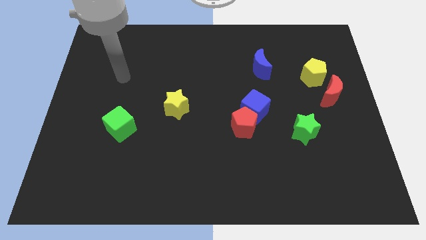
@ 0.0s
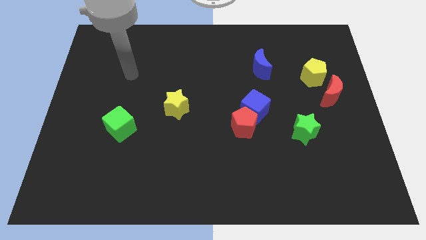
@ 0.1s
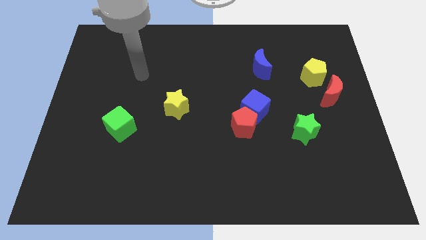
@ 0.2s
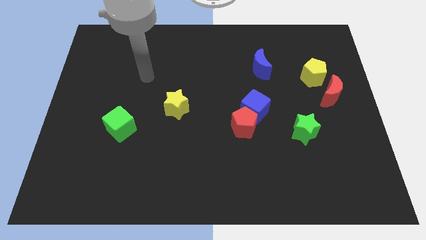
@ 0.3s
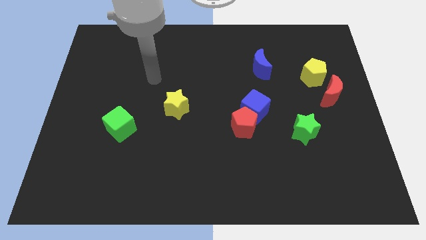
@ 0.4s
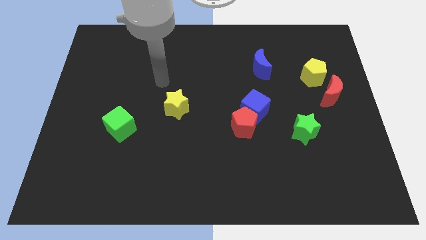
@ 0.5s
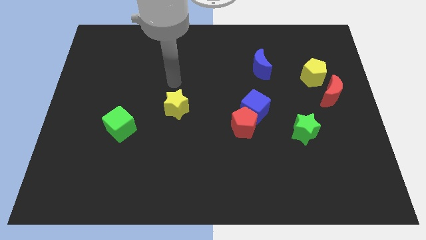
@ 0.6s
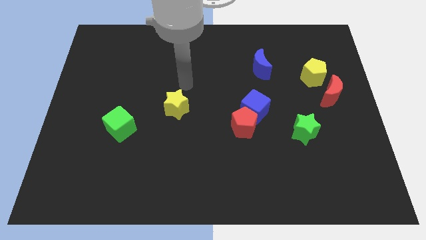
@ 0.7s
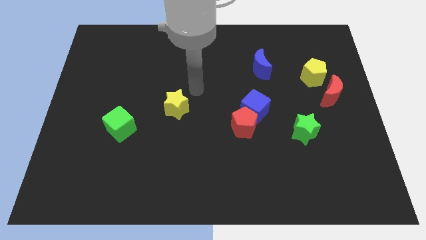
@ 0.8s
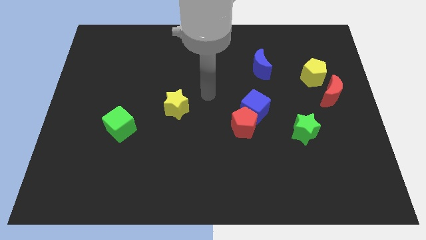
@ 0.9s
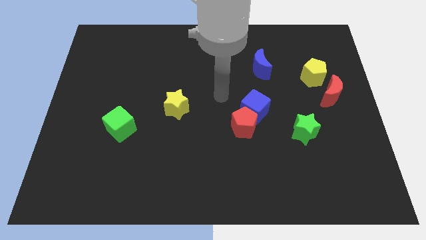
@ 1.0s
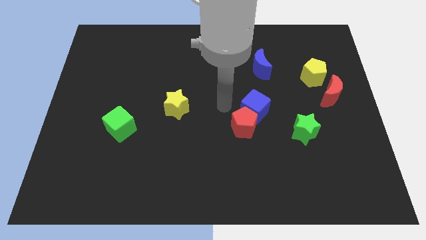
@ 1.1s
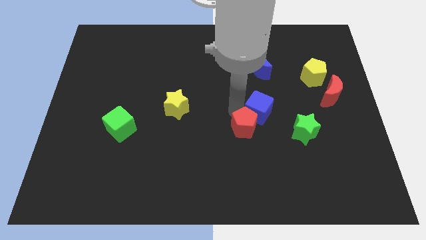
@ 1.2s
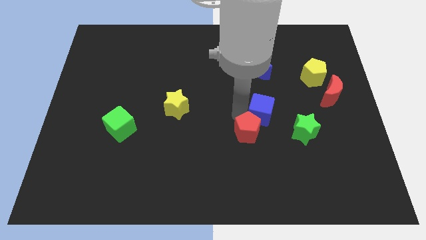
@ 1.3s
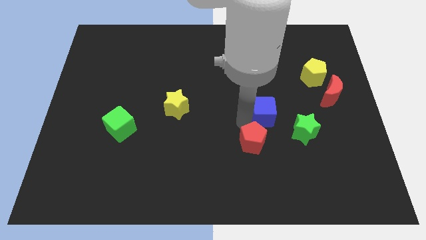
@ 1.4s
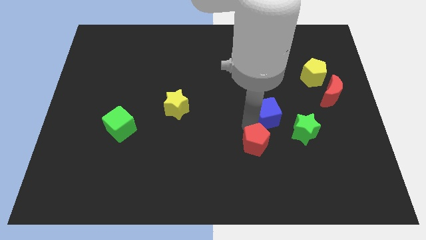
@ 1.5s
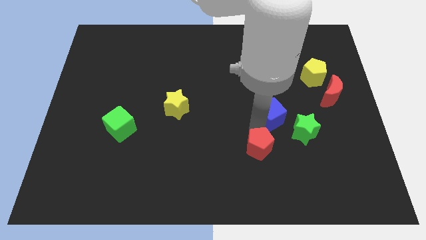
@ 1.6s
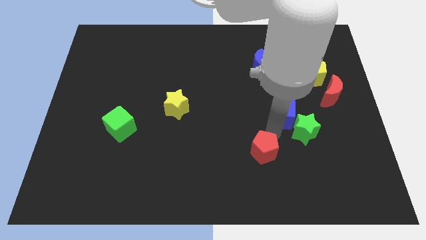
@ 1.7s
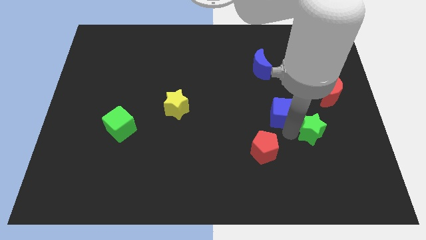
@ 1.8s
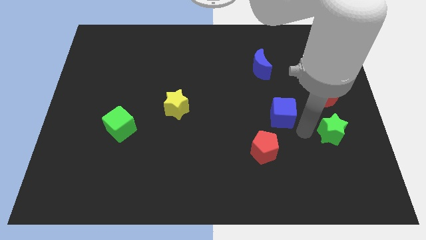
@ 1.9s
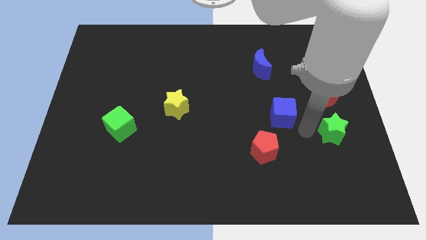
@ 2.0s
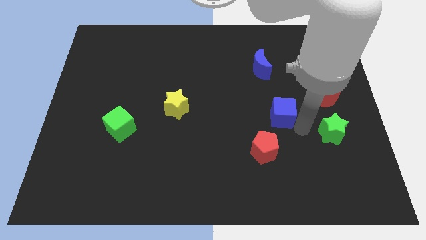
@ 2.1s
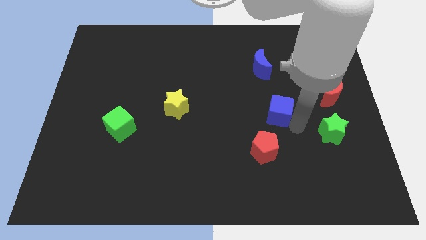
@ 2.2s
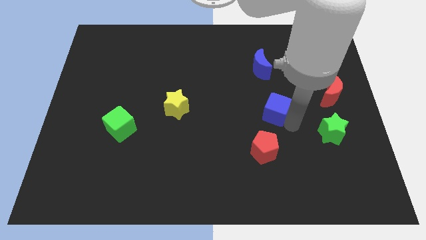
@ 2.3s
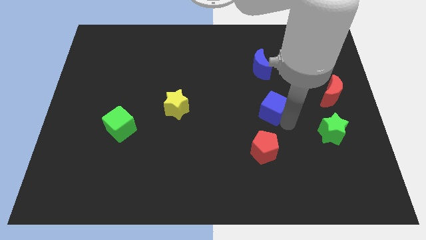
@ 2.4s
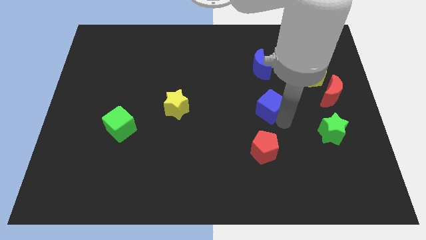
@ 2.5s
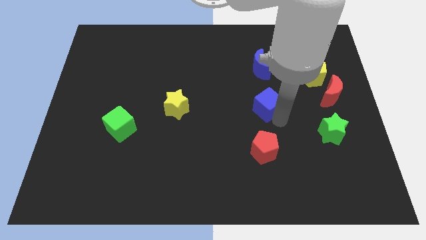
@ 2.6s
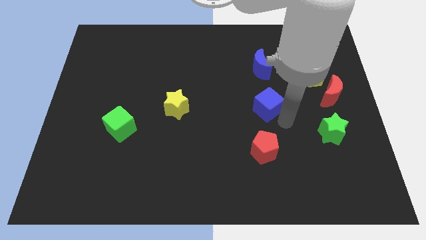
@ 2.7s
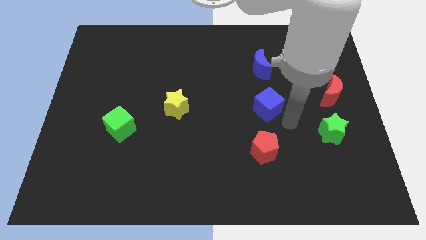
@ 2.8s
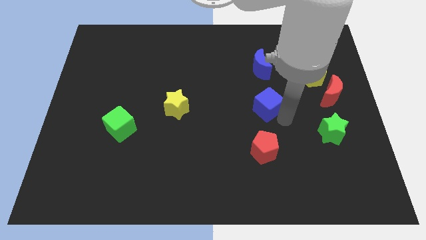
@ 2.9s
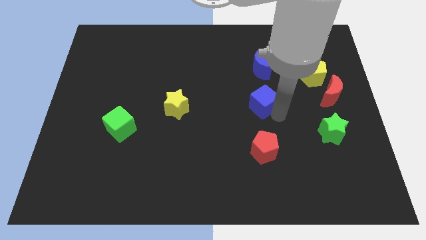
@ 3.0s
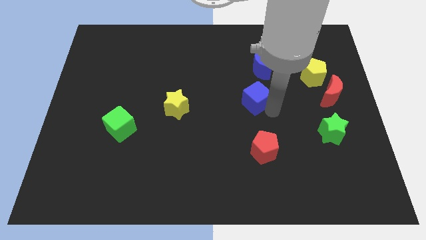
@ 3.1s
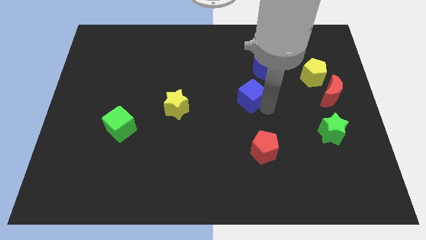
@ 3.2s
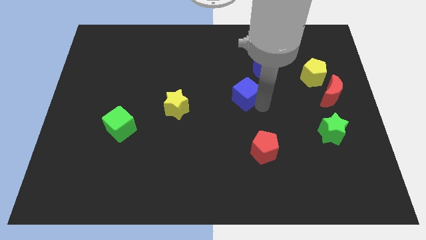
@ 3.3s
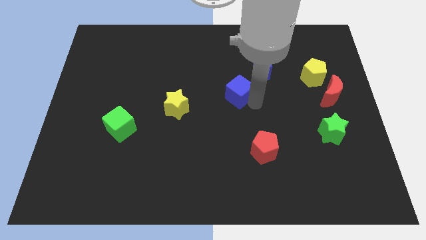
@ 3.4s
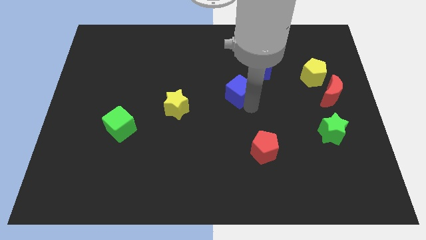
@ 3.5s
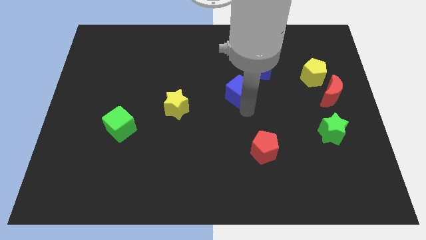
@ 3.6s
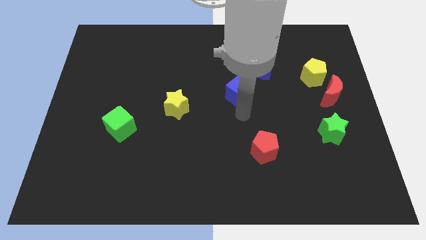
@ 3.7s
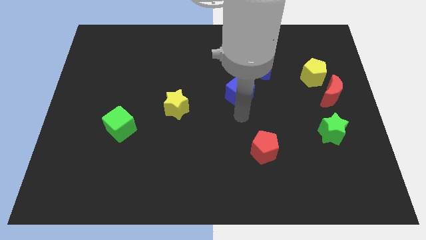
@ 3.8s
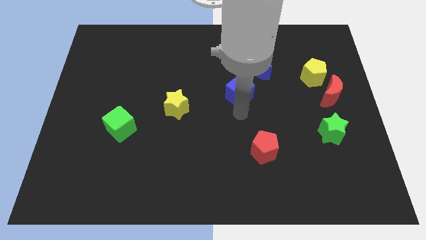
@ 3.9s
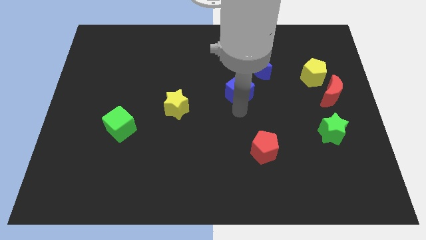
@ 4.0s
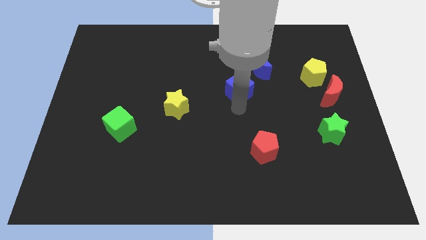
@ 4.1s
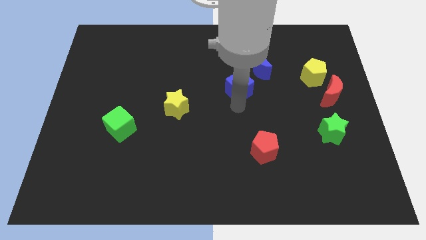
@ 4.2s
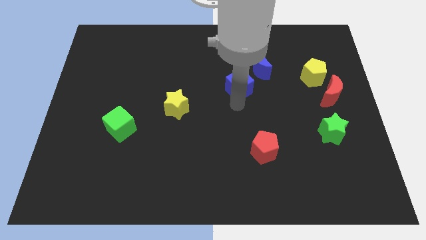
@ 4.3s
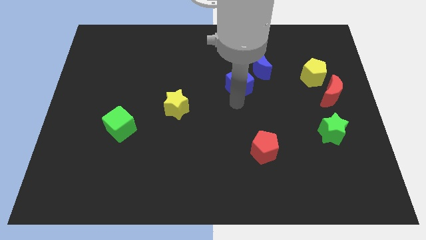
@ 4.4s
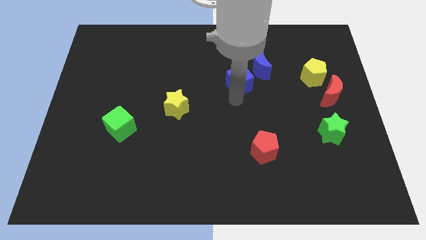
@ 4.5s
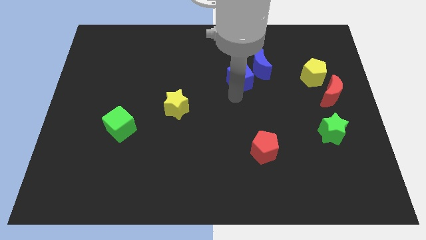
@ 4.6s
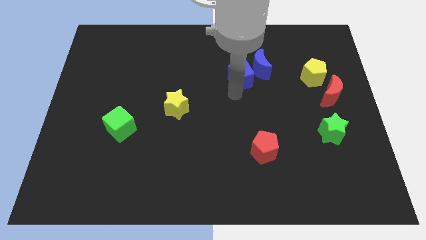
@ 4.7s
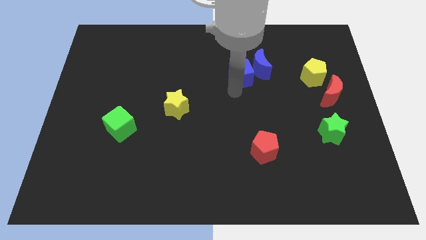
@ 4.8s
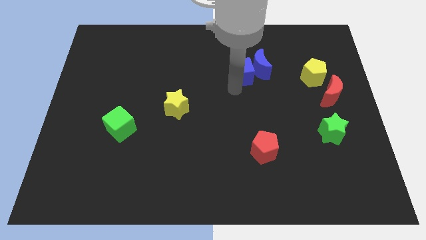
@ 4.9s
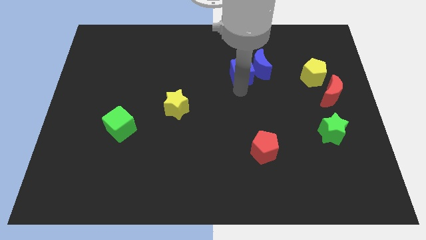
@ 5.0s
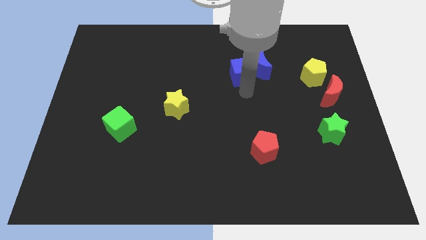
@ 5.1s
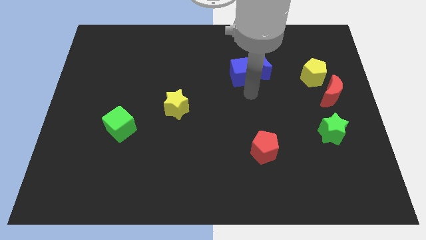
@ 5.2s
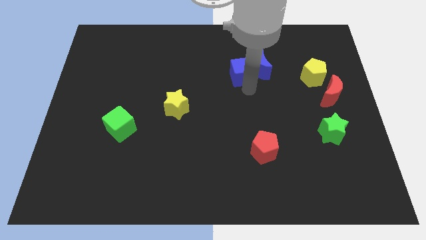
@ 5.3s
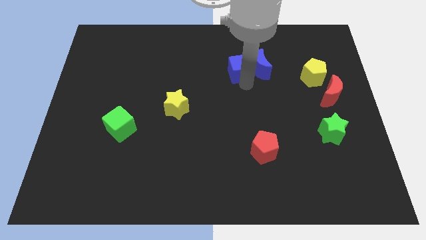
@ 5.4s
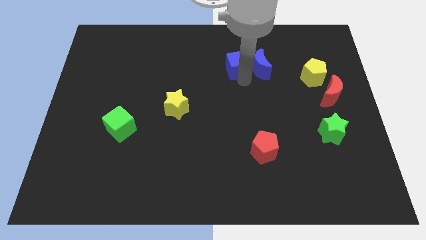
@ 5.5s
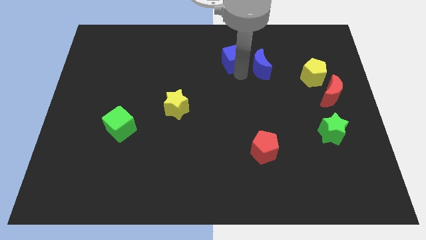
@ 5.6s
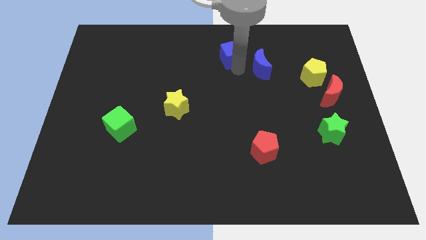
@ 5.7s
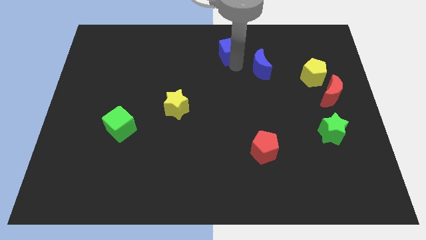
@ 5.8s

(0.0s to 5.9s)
put the blue cube to the top side

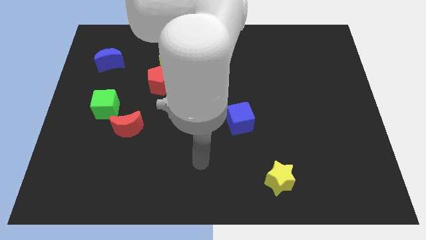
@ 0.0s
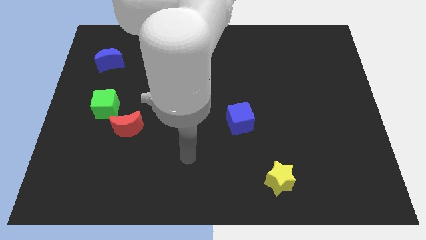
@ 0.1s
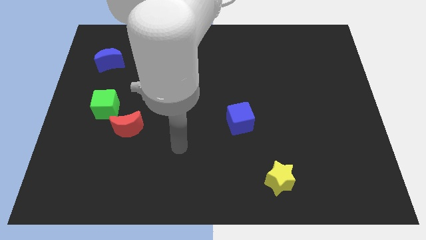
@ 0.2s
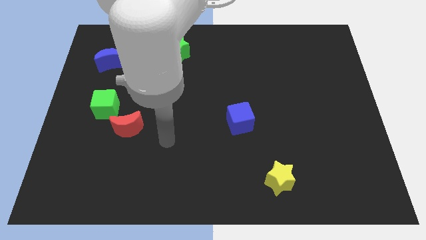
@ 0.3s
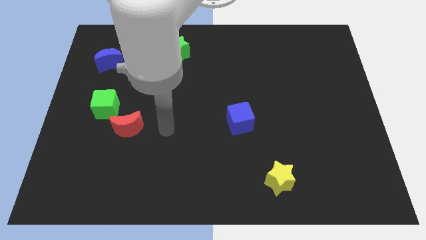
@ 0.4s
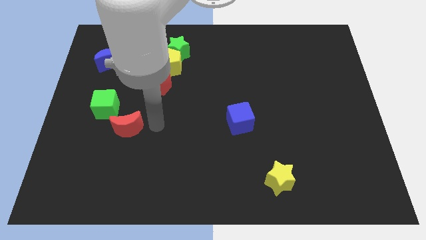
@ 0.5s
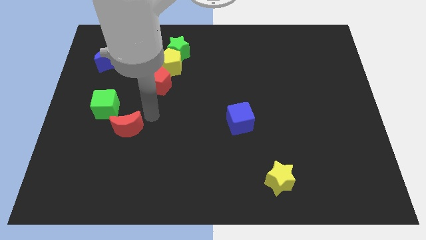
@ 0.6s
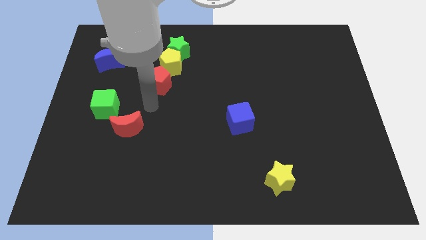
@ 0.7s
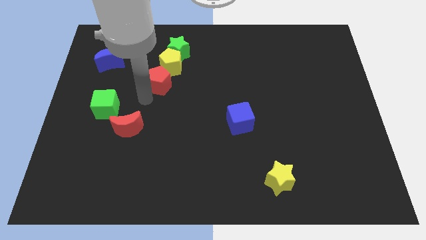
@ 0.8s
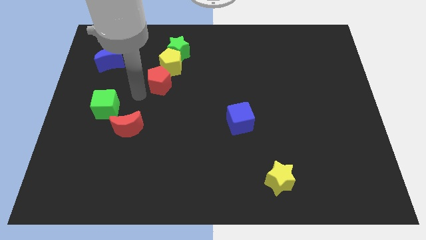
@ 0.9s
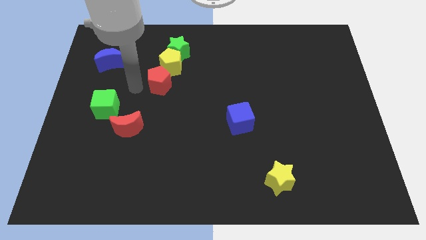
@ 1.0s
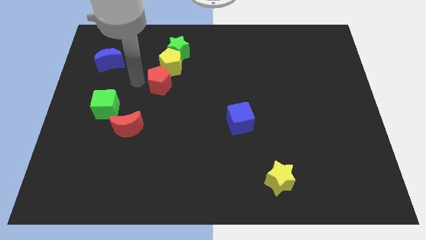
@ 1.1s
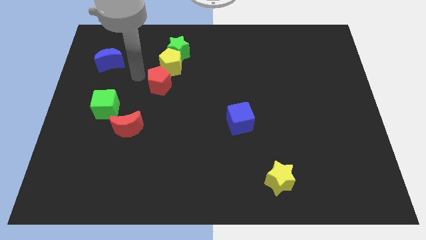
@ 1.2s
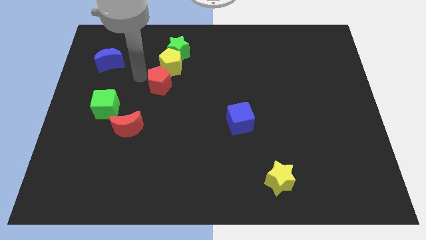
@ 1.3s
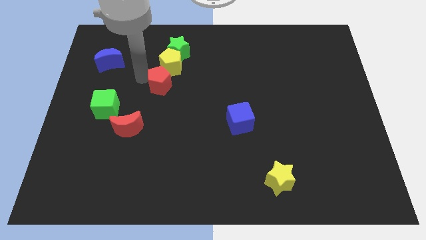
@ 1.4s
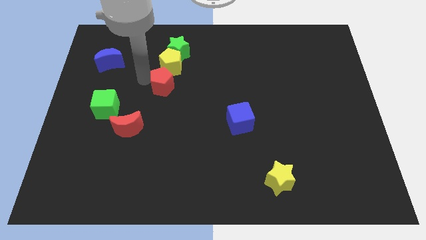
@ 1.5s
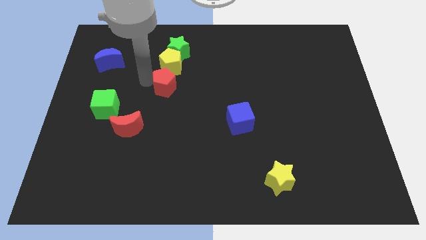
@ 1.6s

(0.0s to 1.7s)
push the red pentagon to the center of the board

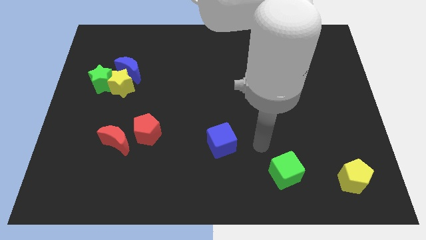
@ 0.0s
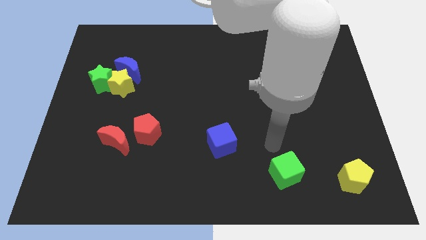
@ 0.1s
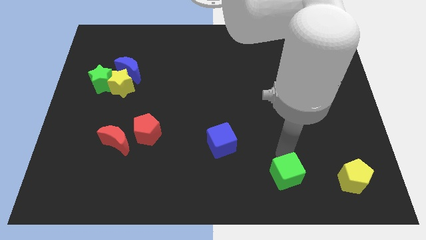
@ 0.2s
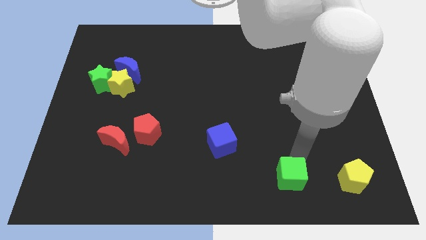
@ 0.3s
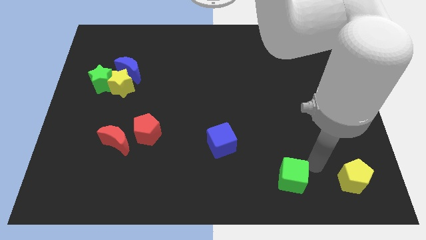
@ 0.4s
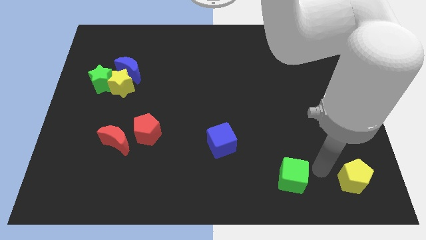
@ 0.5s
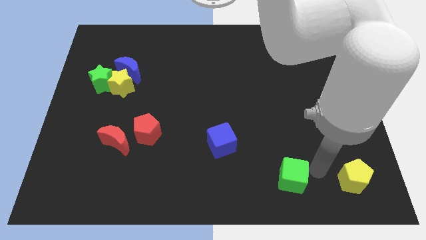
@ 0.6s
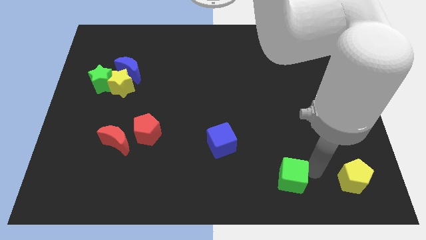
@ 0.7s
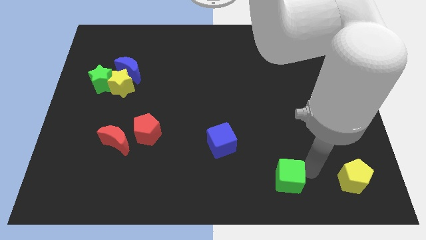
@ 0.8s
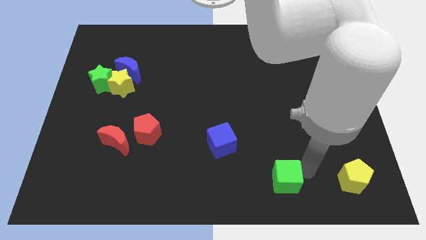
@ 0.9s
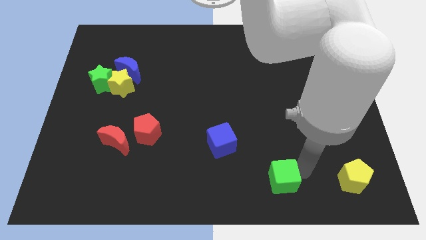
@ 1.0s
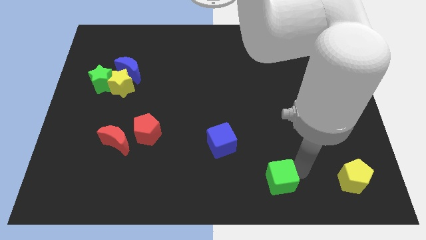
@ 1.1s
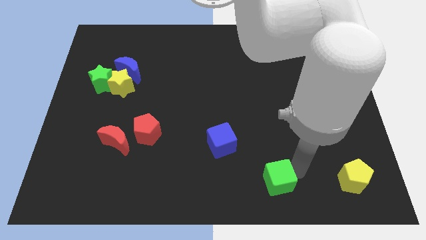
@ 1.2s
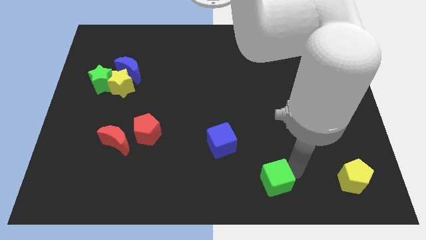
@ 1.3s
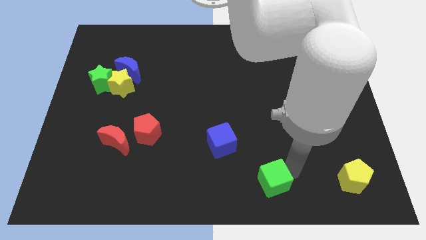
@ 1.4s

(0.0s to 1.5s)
move the green cube to the bottom
